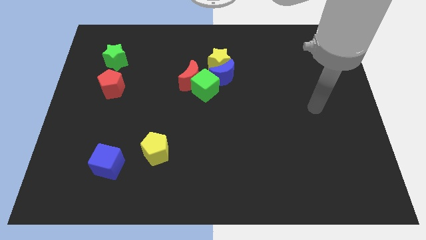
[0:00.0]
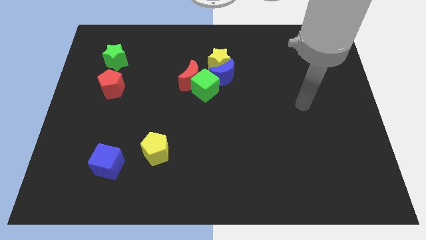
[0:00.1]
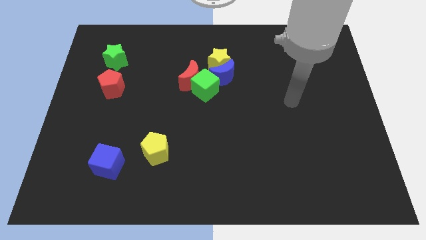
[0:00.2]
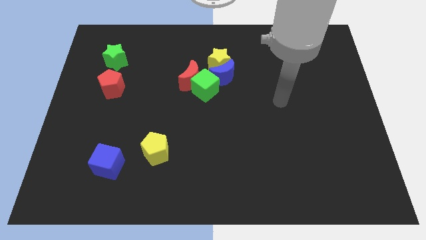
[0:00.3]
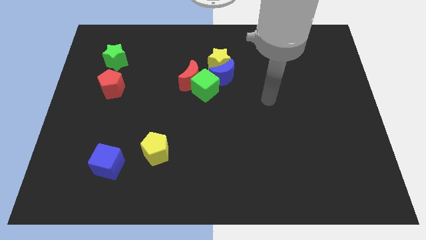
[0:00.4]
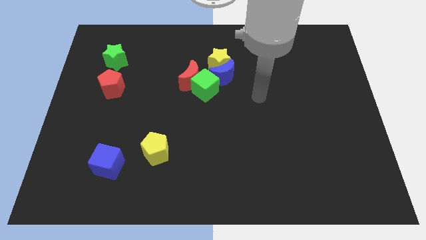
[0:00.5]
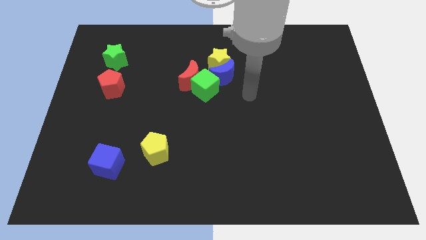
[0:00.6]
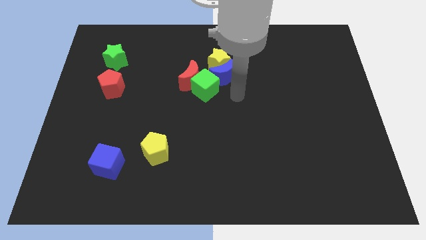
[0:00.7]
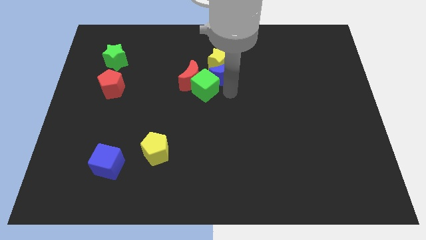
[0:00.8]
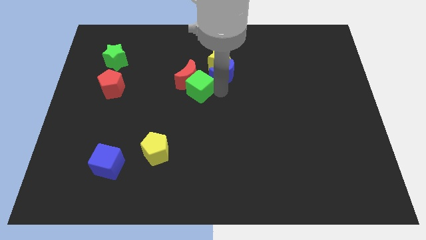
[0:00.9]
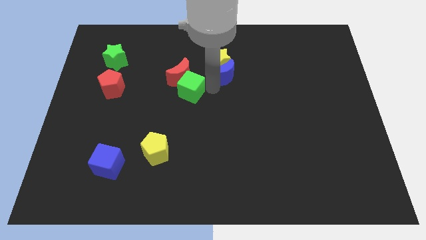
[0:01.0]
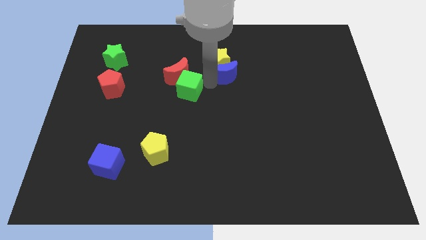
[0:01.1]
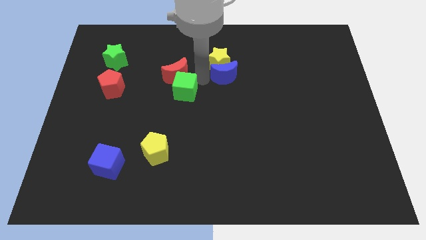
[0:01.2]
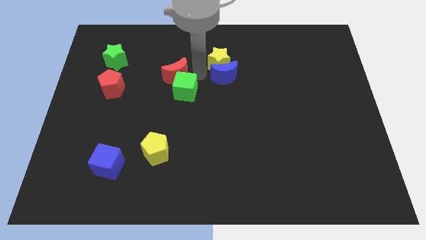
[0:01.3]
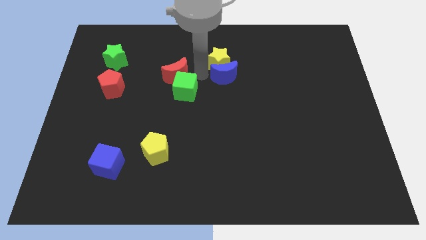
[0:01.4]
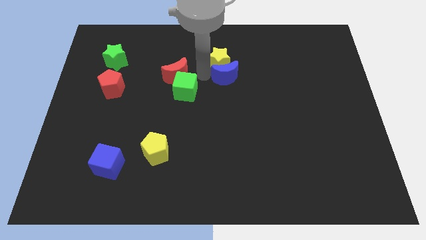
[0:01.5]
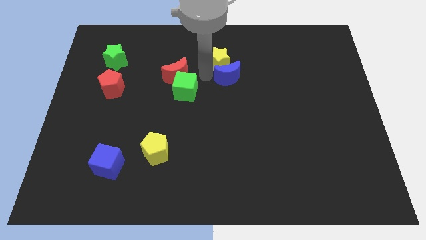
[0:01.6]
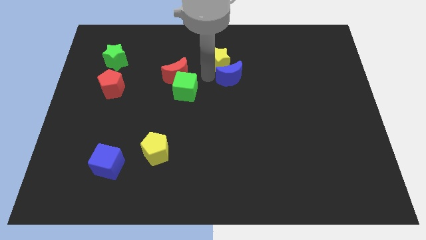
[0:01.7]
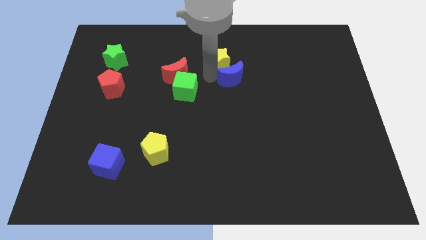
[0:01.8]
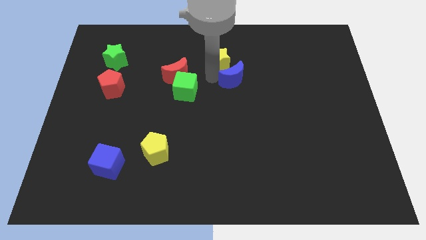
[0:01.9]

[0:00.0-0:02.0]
separate the blue moon from the group of blocks

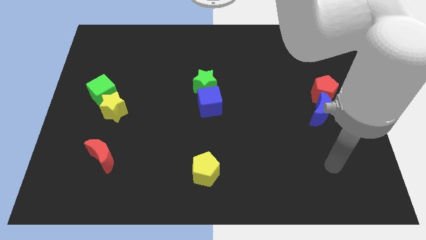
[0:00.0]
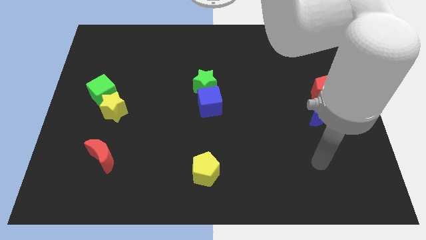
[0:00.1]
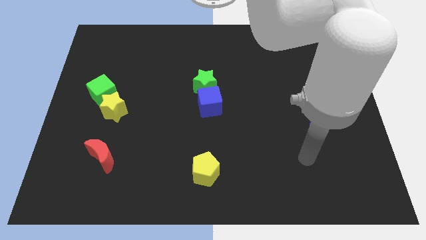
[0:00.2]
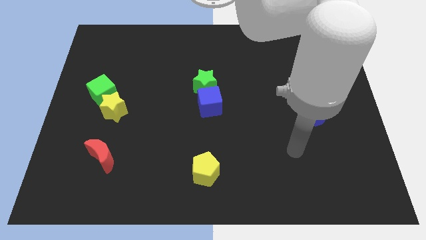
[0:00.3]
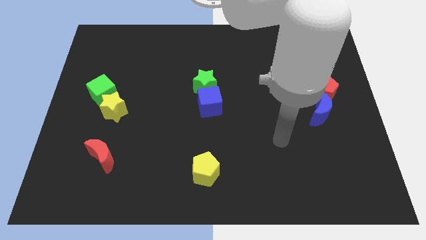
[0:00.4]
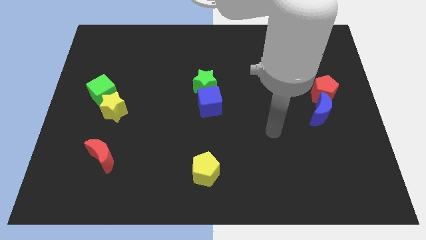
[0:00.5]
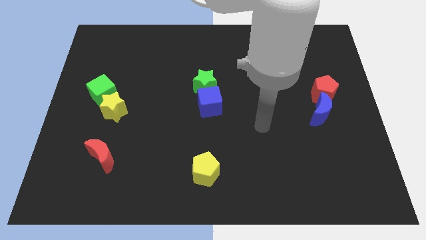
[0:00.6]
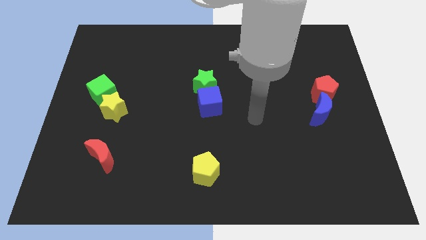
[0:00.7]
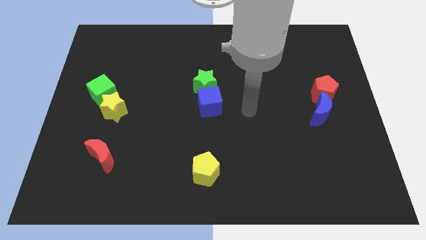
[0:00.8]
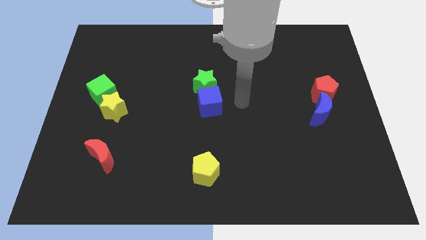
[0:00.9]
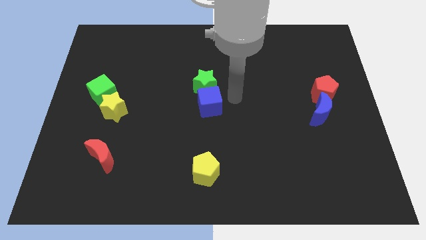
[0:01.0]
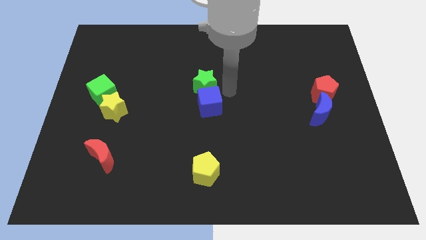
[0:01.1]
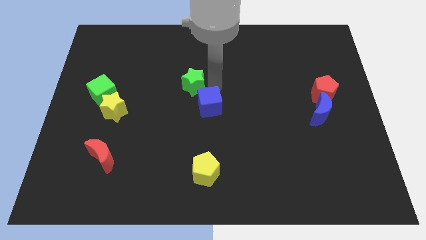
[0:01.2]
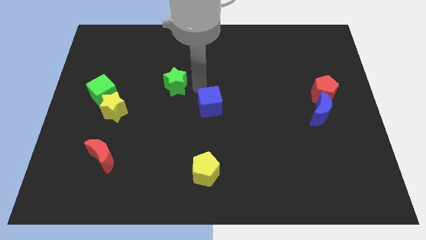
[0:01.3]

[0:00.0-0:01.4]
pull the blue cube apart from the green star

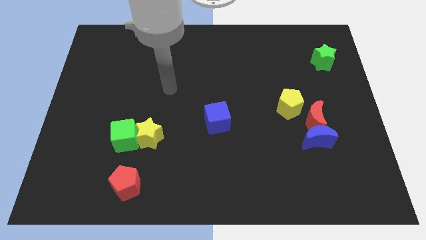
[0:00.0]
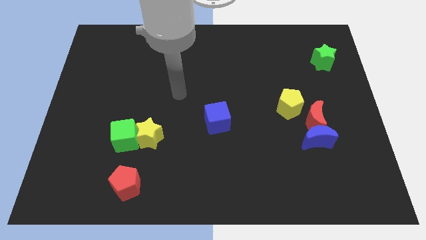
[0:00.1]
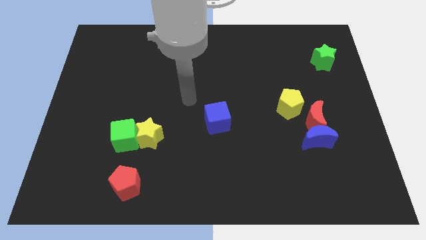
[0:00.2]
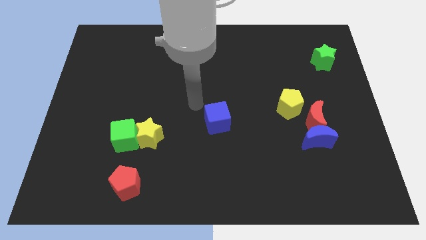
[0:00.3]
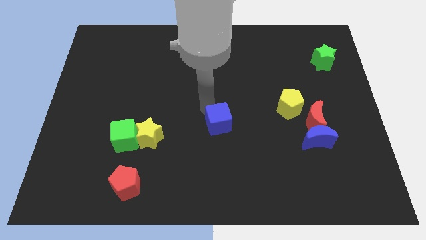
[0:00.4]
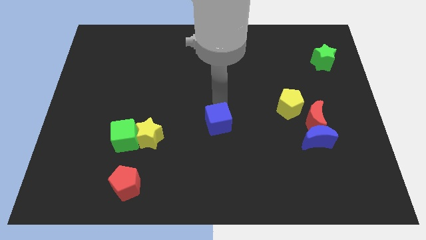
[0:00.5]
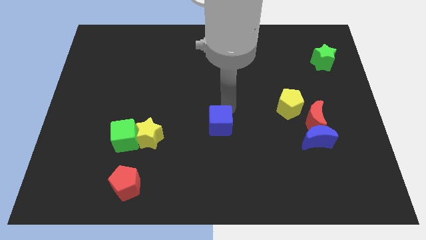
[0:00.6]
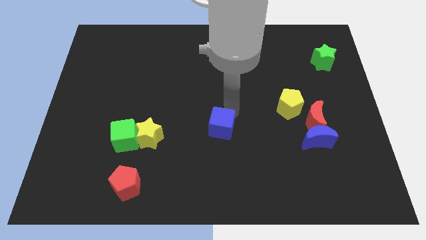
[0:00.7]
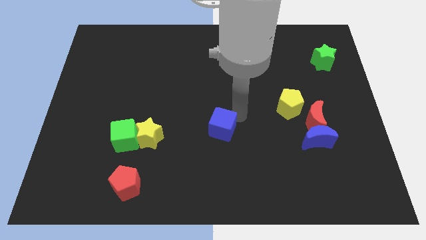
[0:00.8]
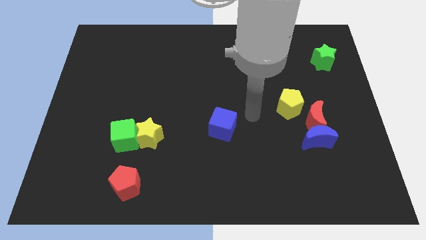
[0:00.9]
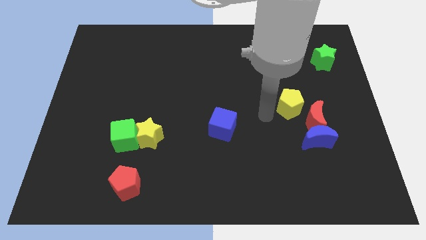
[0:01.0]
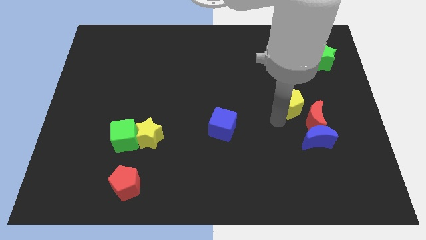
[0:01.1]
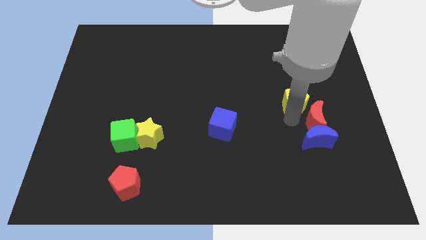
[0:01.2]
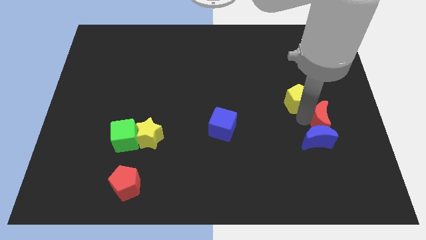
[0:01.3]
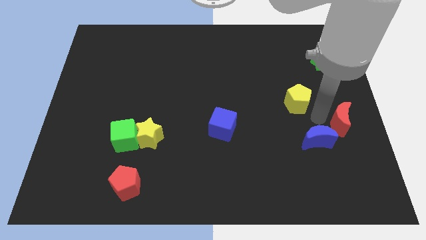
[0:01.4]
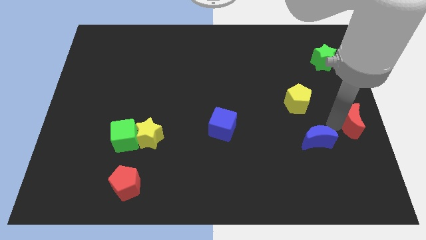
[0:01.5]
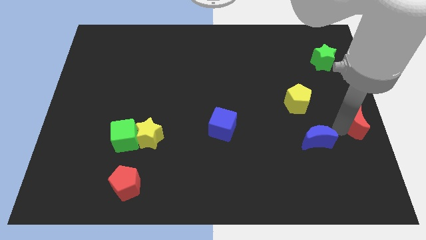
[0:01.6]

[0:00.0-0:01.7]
separate the blue moon from the red moon

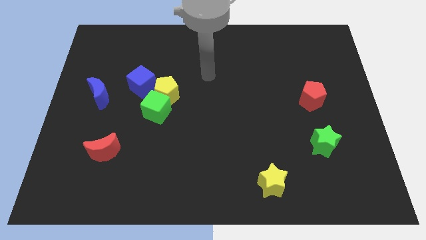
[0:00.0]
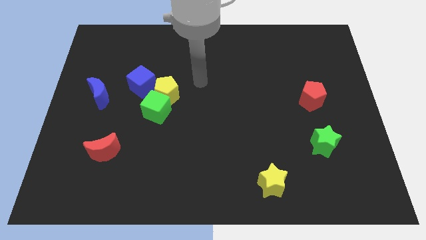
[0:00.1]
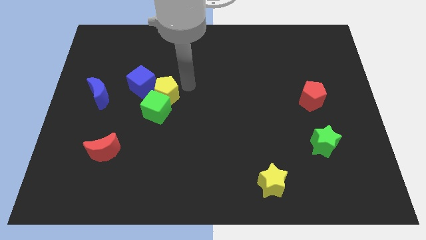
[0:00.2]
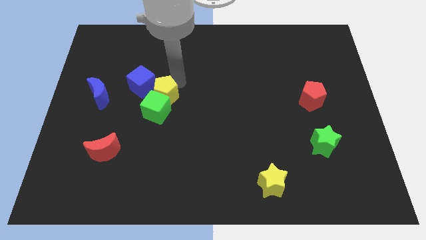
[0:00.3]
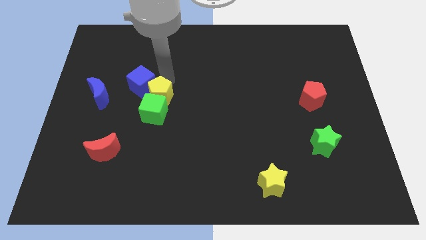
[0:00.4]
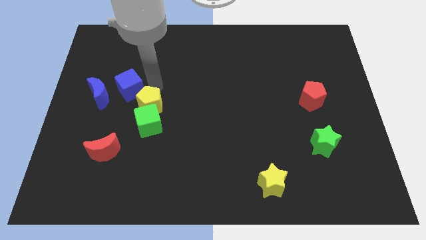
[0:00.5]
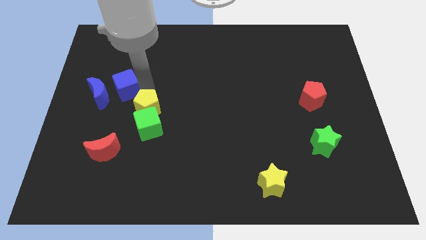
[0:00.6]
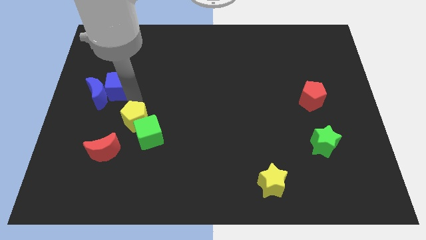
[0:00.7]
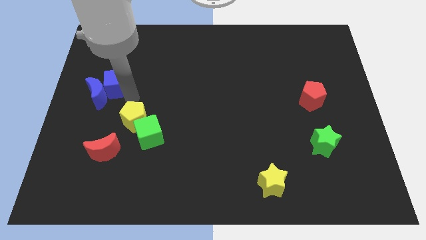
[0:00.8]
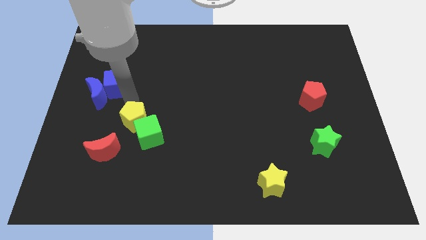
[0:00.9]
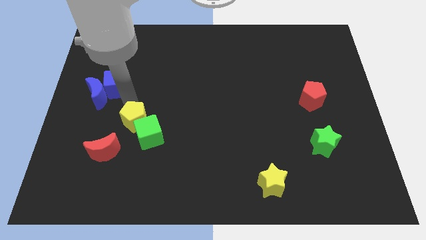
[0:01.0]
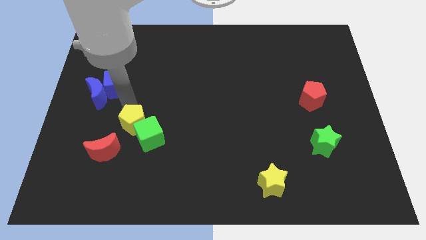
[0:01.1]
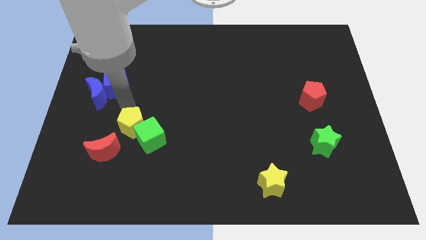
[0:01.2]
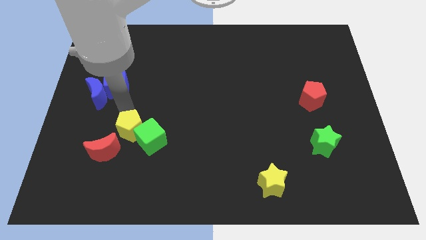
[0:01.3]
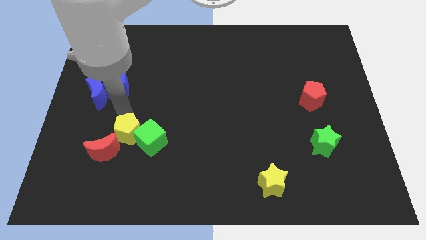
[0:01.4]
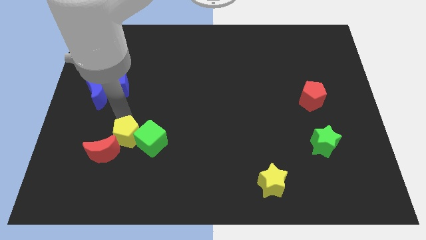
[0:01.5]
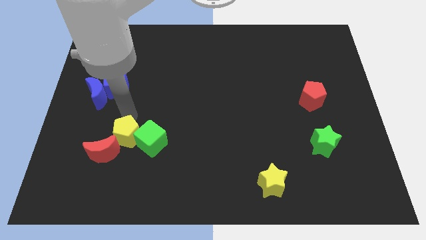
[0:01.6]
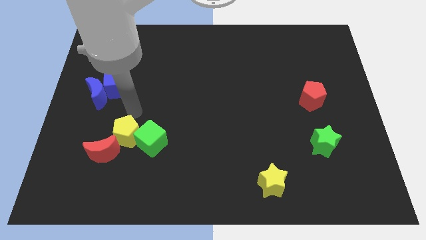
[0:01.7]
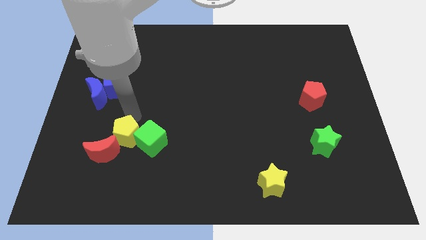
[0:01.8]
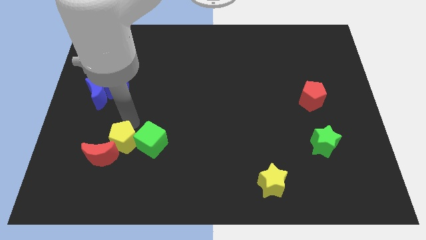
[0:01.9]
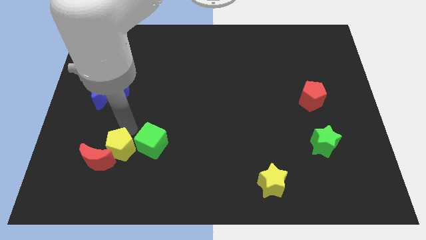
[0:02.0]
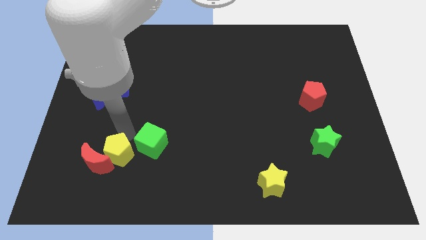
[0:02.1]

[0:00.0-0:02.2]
pull the yellow pentagon apart from the green cube and blue cube

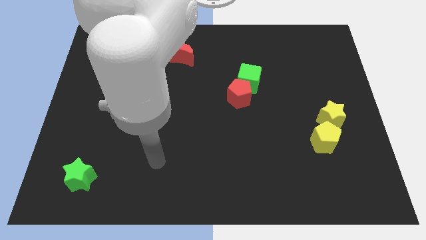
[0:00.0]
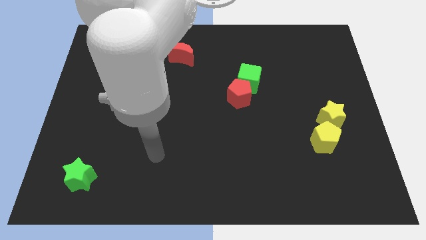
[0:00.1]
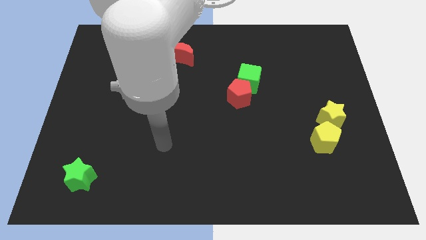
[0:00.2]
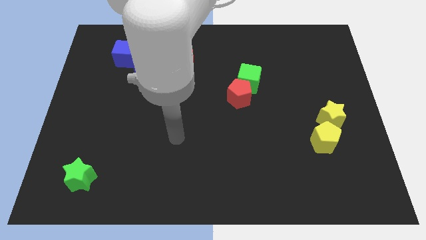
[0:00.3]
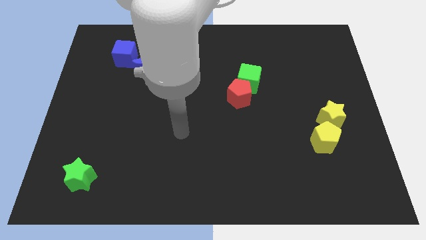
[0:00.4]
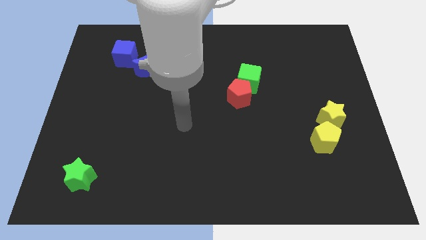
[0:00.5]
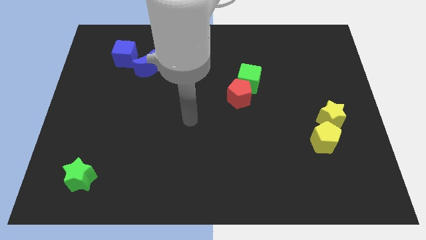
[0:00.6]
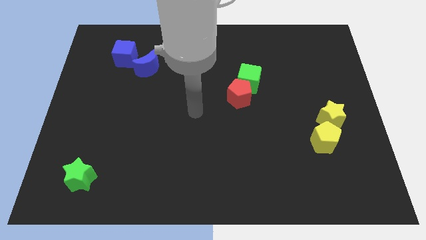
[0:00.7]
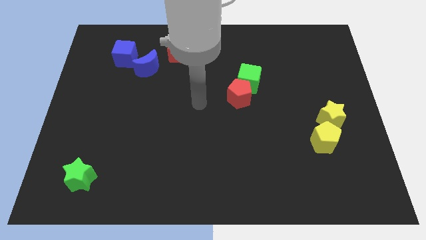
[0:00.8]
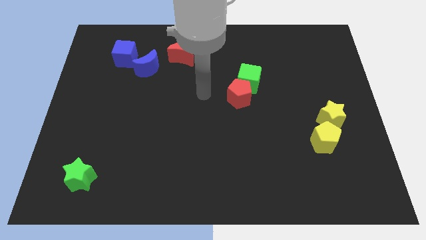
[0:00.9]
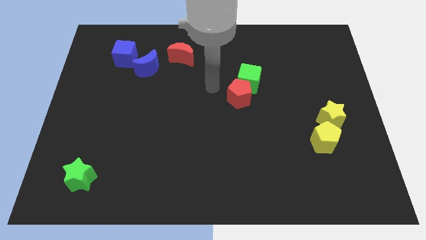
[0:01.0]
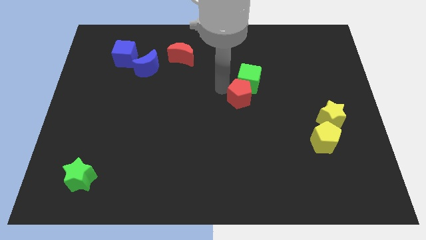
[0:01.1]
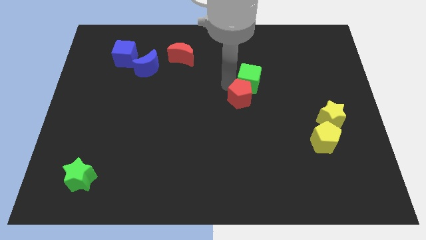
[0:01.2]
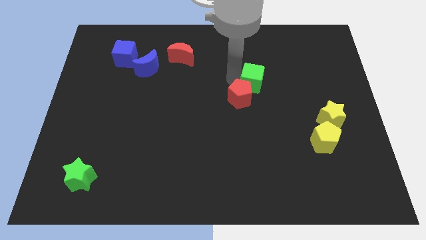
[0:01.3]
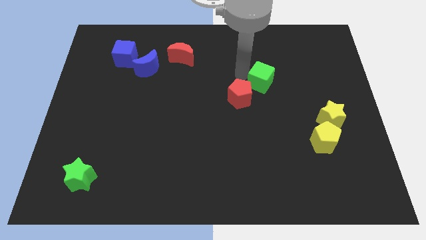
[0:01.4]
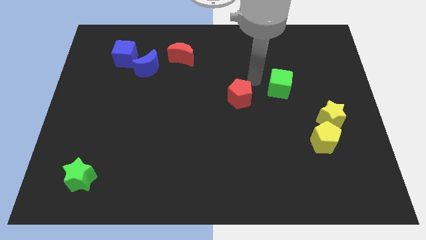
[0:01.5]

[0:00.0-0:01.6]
pull the red pentagon apart from the green cube

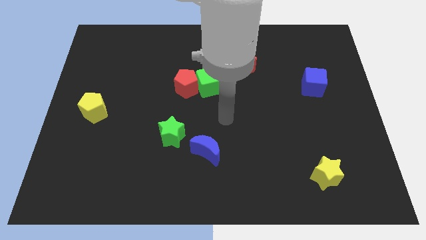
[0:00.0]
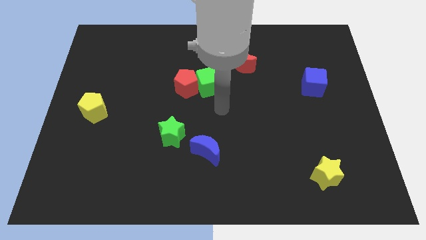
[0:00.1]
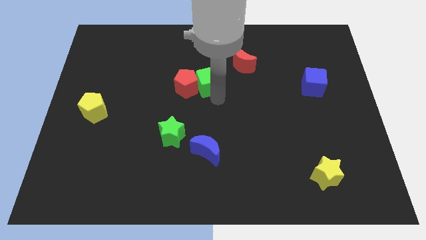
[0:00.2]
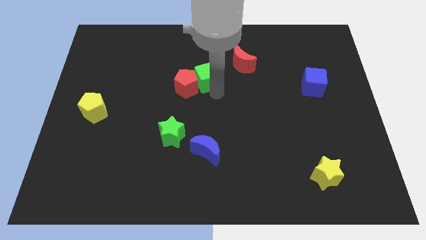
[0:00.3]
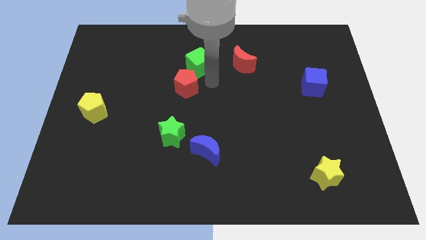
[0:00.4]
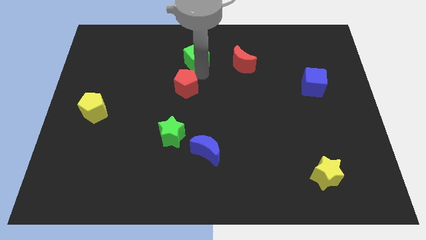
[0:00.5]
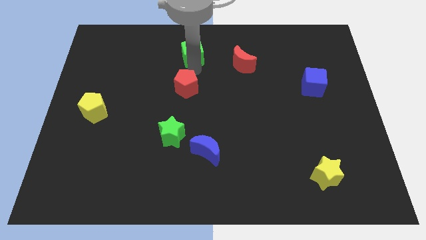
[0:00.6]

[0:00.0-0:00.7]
move the red pentagon away from the green cube
